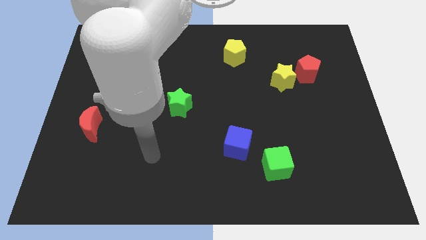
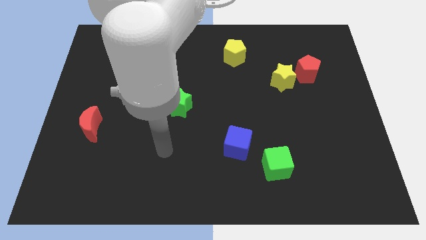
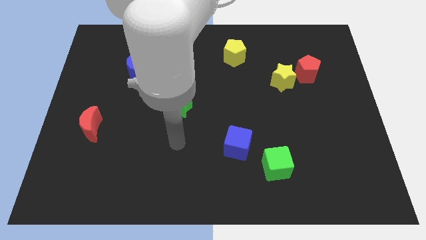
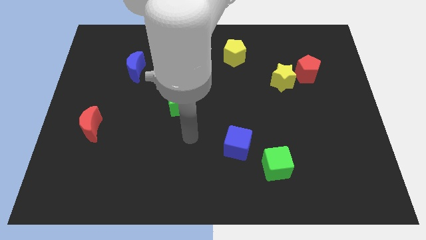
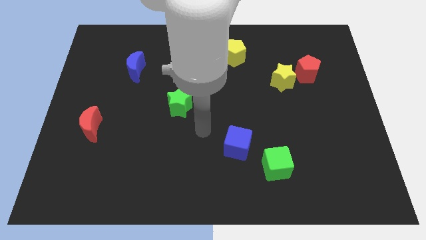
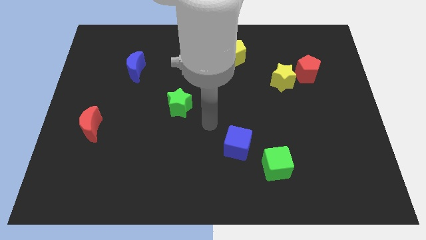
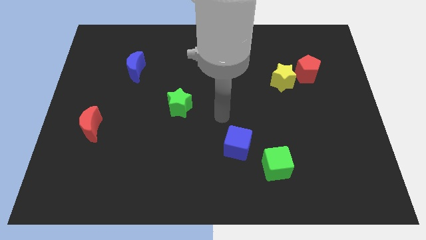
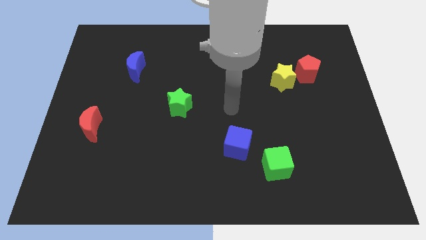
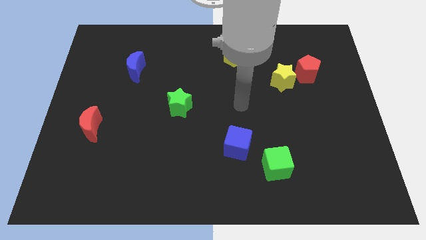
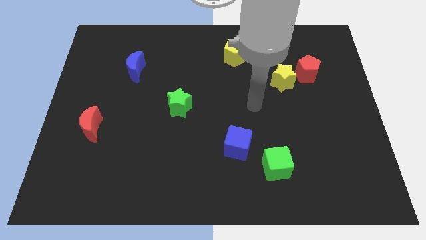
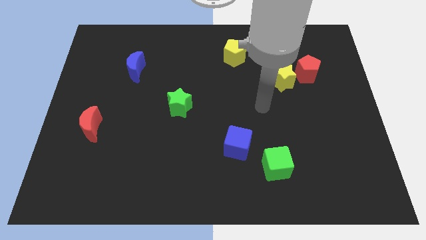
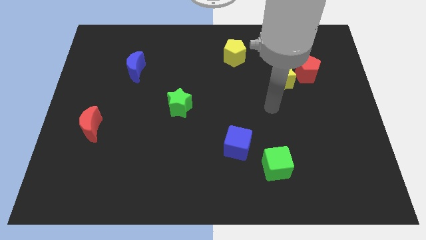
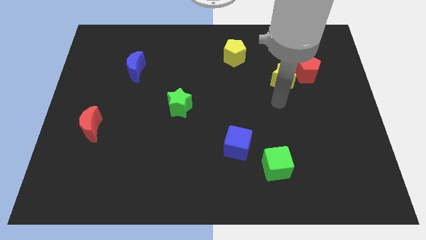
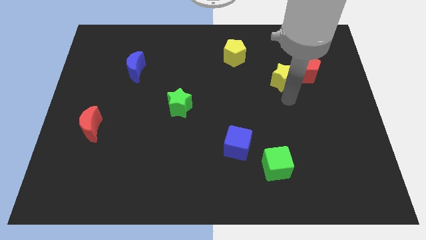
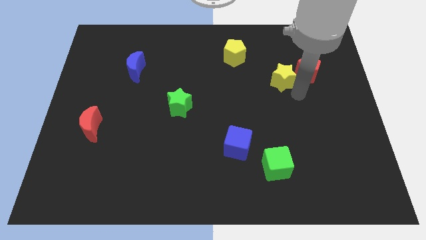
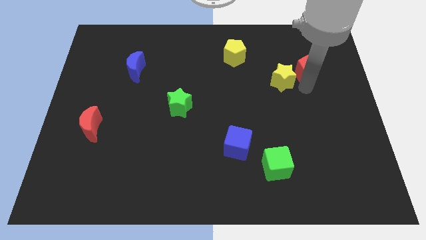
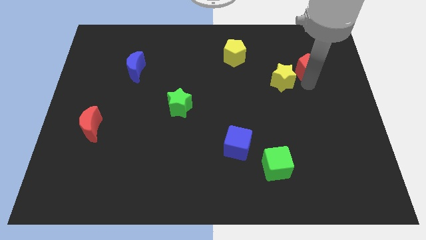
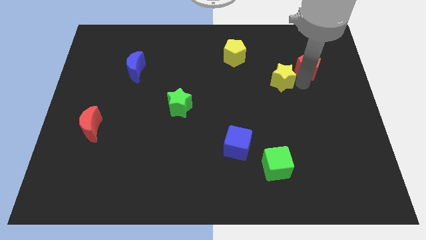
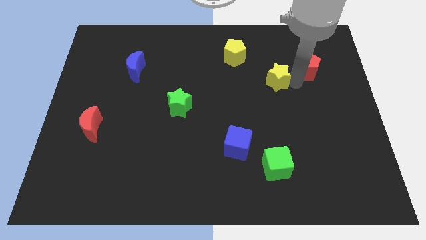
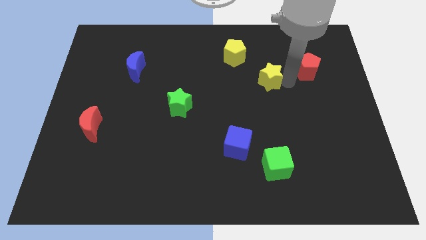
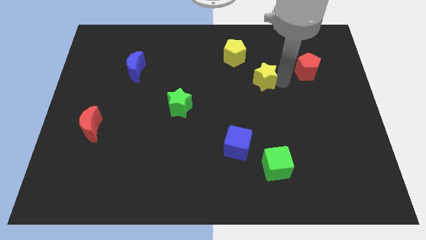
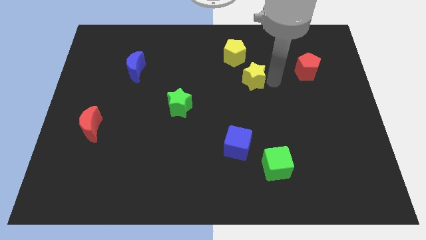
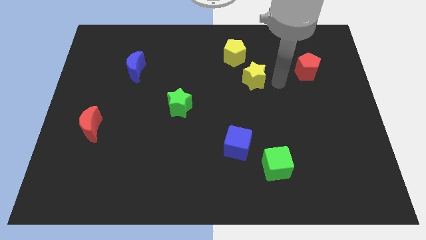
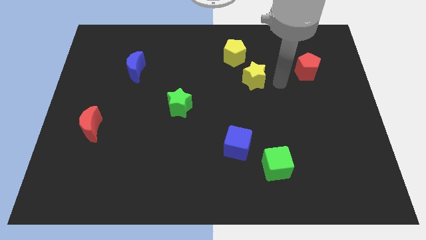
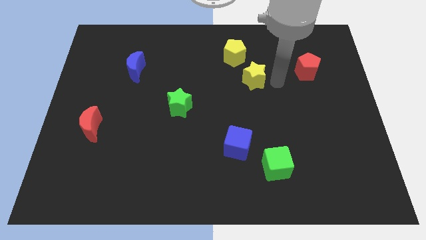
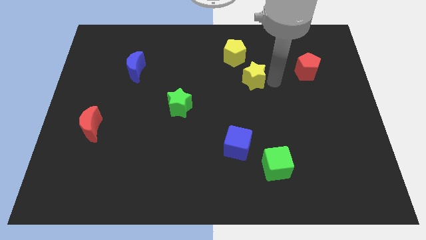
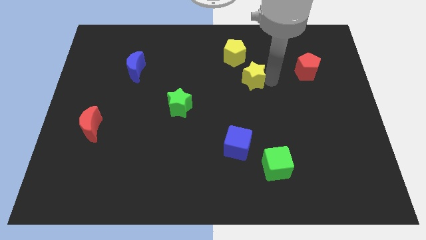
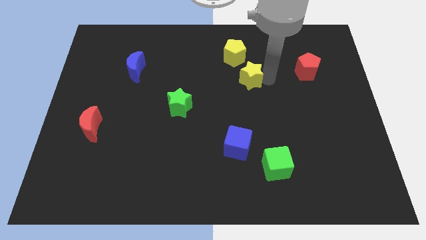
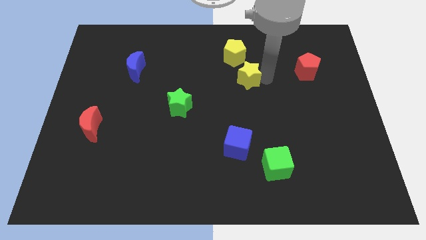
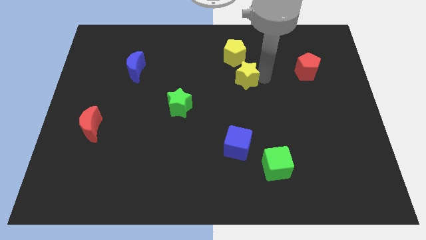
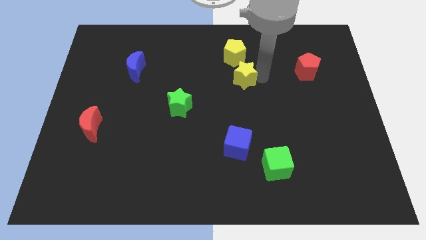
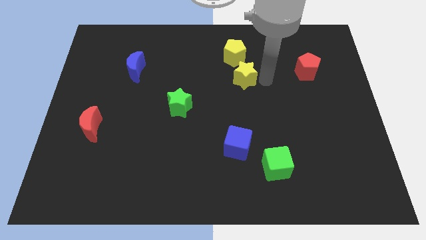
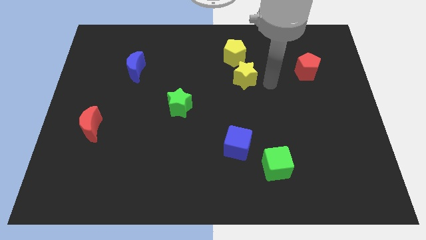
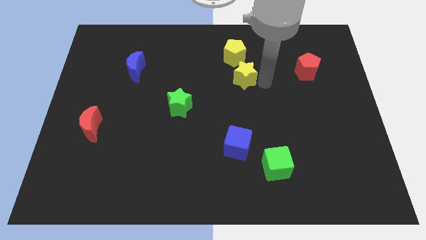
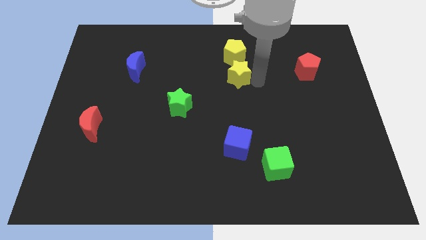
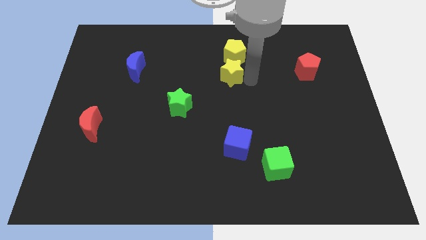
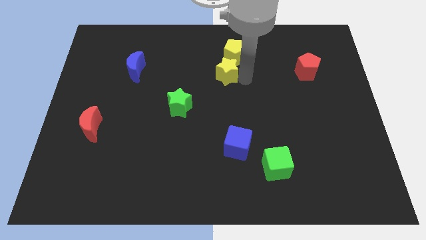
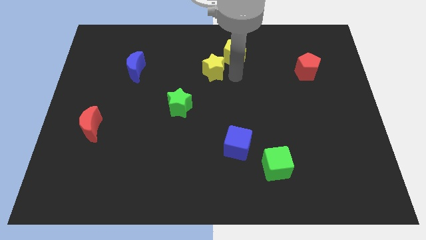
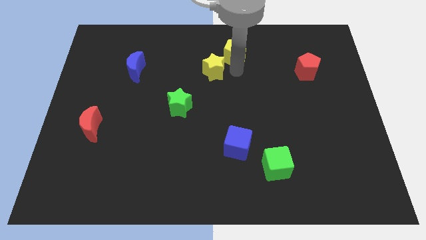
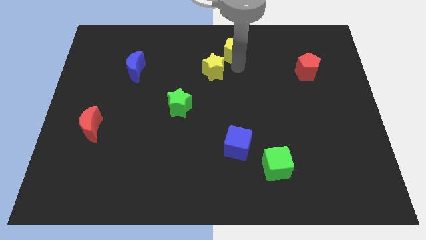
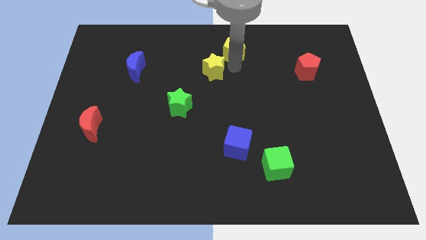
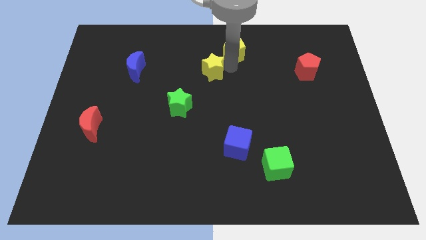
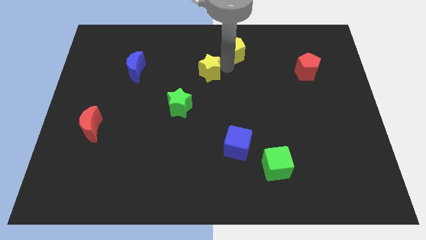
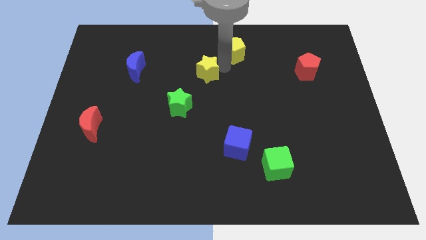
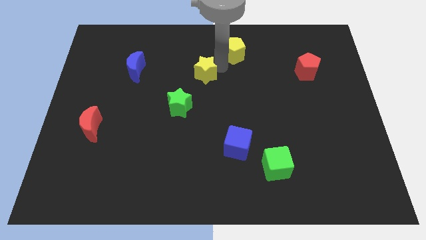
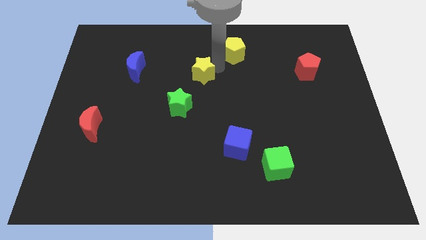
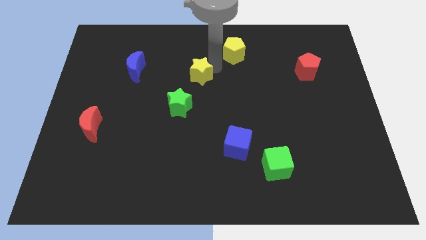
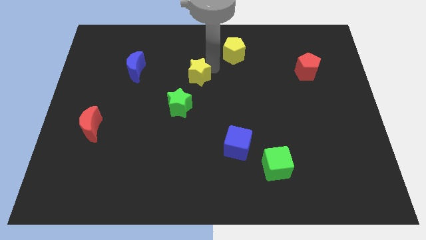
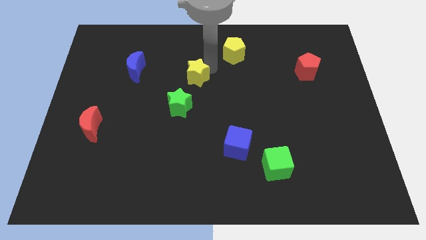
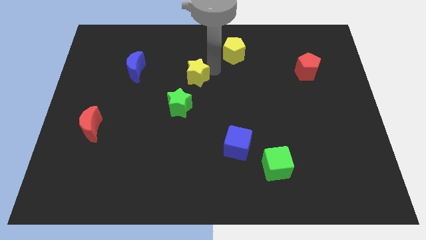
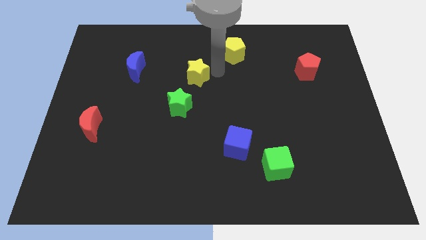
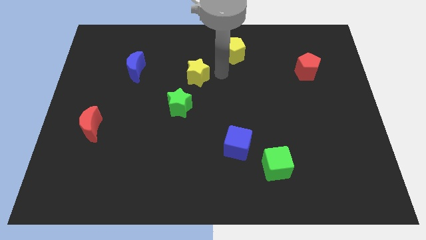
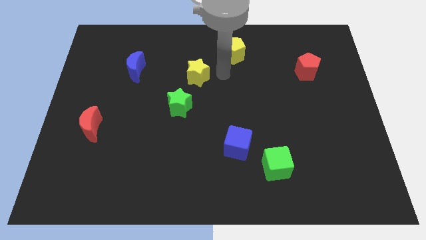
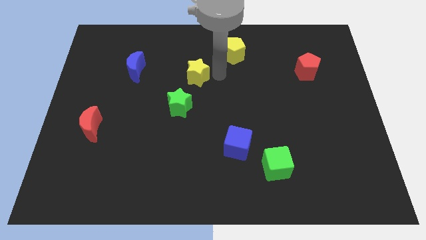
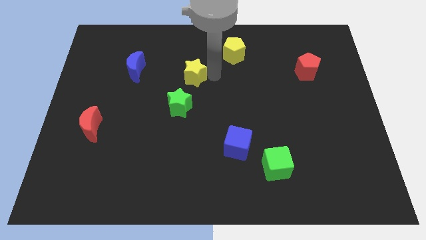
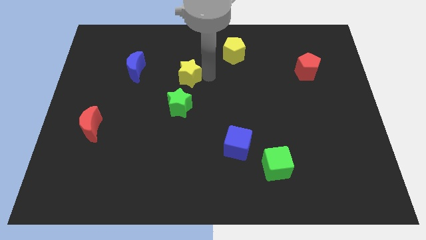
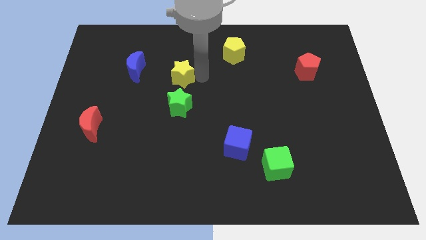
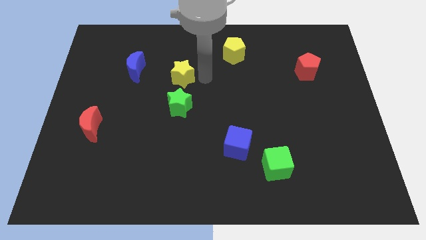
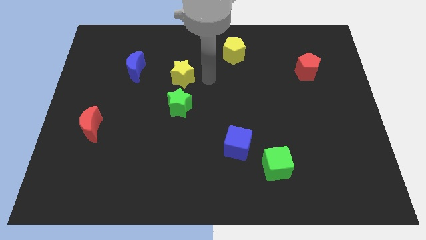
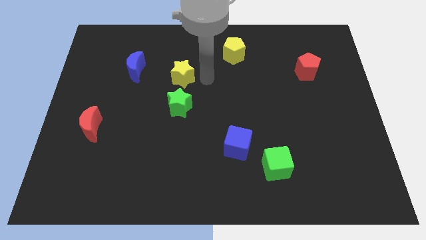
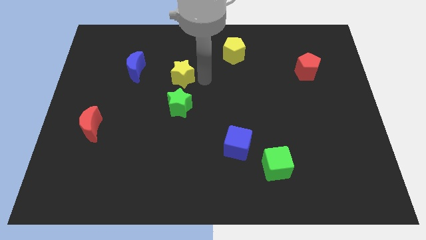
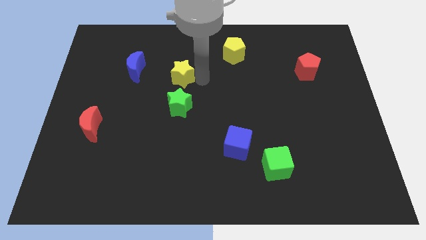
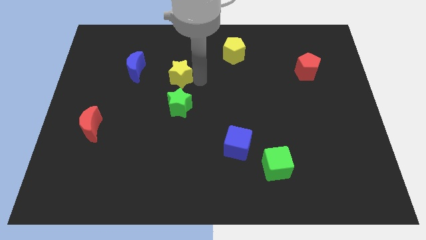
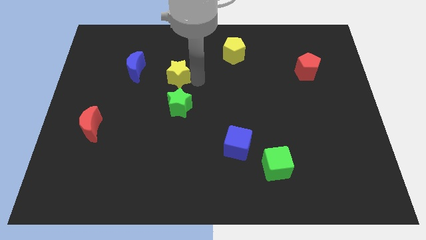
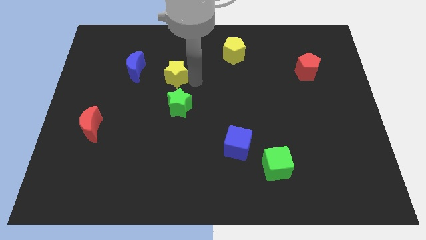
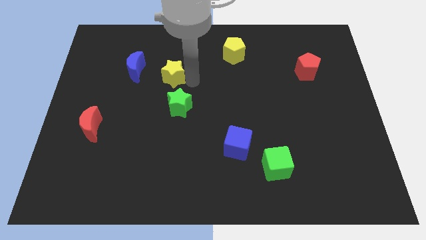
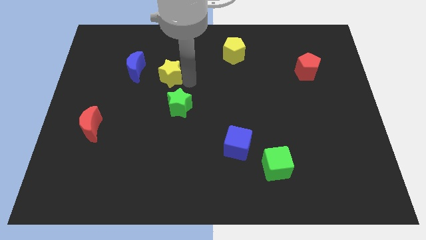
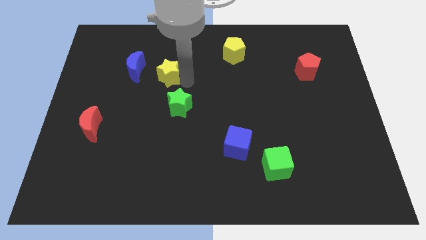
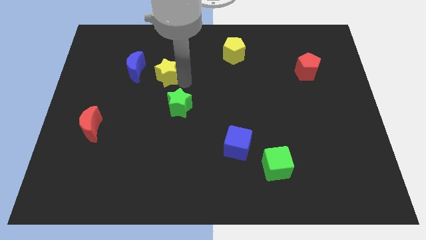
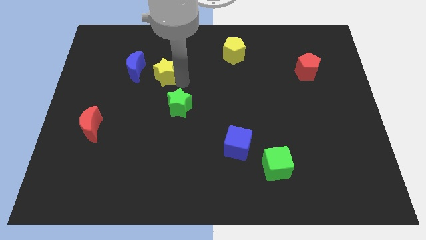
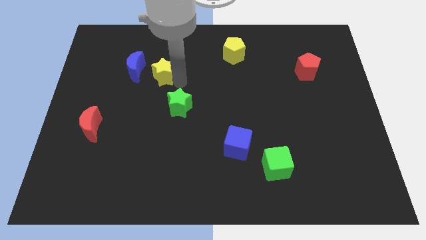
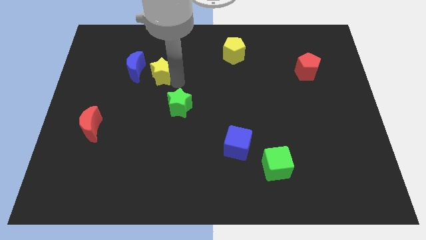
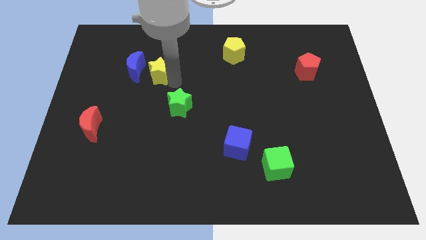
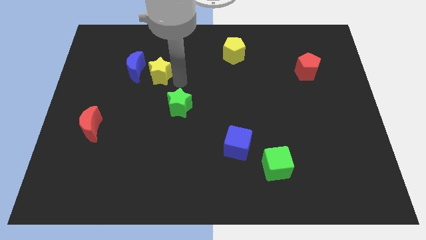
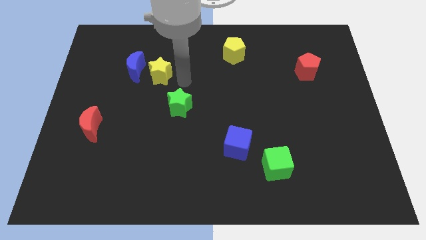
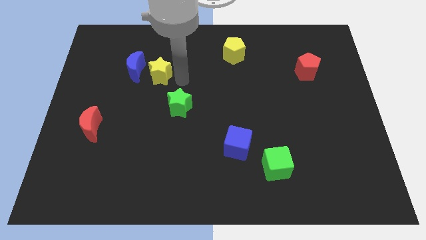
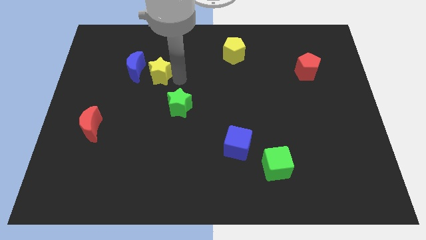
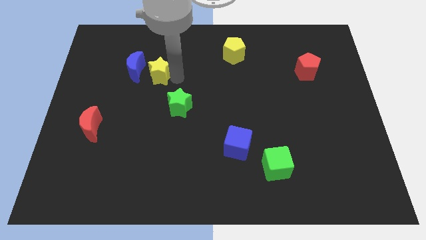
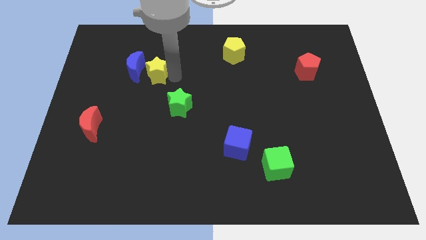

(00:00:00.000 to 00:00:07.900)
put the yellow star next to the blue moon
